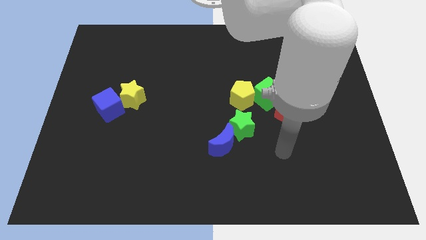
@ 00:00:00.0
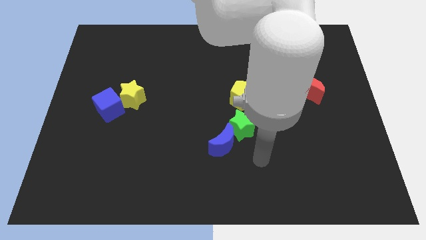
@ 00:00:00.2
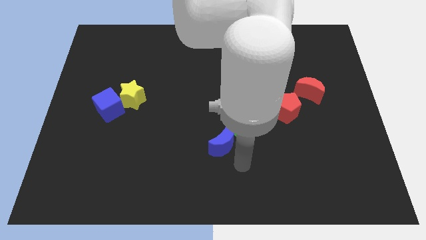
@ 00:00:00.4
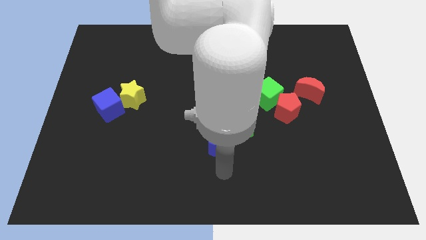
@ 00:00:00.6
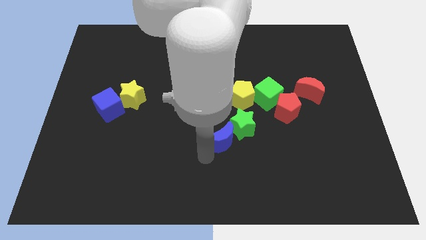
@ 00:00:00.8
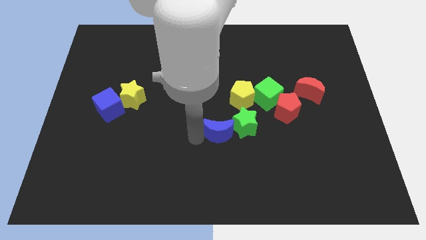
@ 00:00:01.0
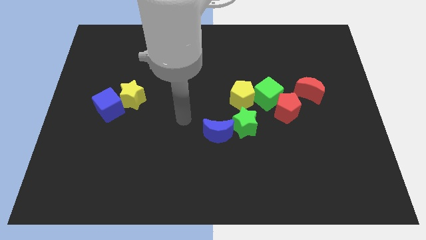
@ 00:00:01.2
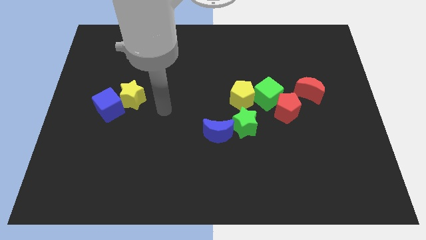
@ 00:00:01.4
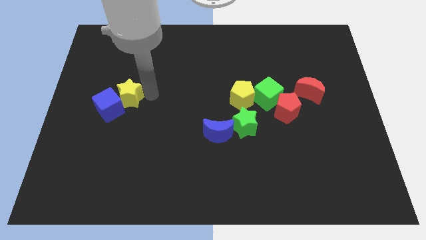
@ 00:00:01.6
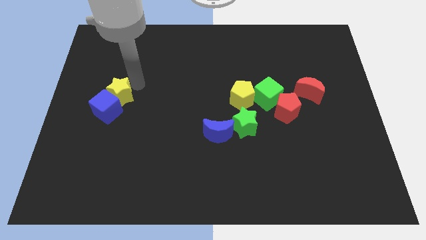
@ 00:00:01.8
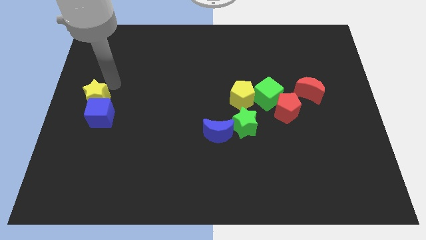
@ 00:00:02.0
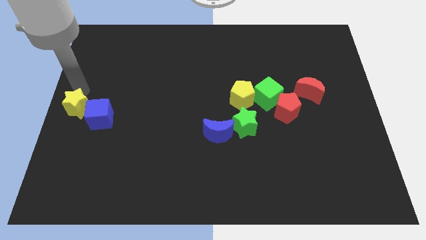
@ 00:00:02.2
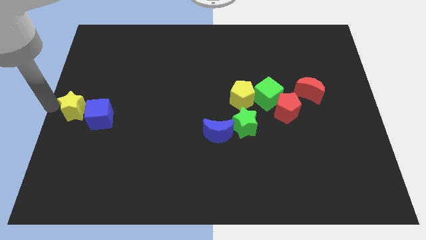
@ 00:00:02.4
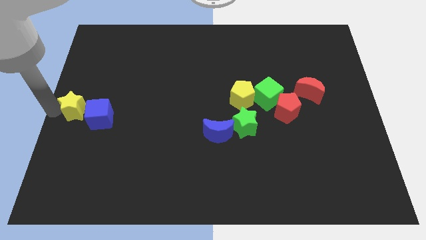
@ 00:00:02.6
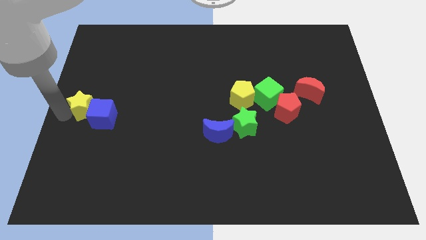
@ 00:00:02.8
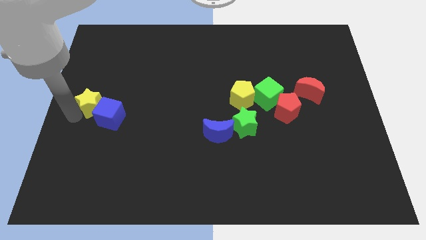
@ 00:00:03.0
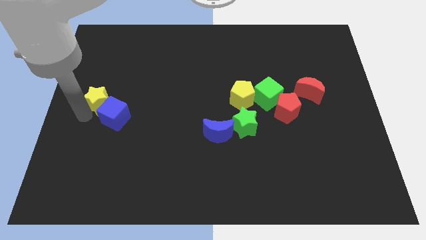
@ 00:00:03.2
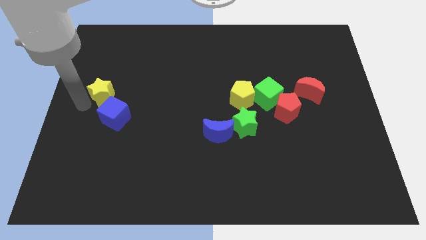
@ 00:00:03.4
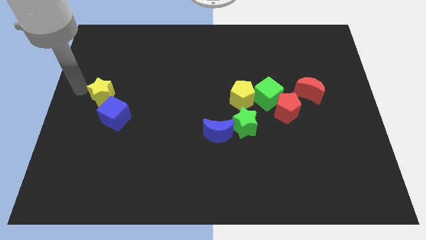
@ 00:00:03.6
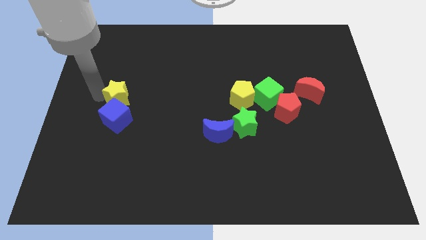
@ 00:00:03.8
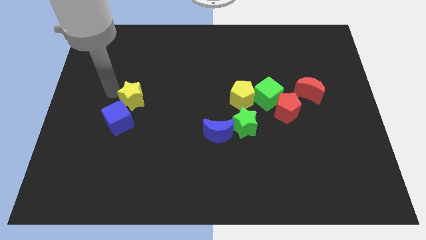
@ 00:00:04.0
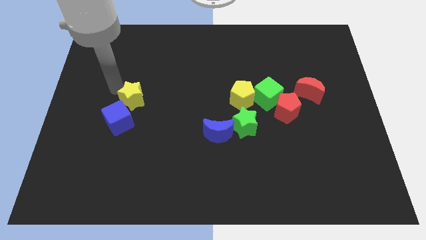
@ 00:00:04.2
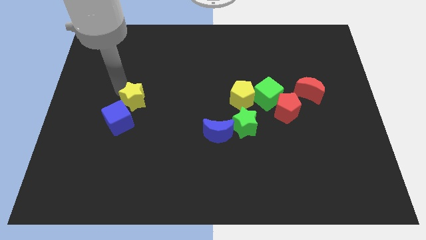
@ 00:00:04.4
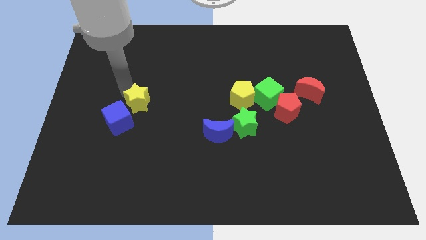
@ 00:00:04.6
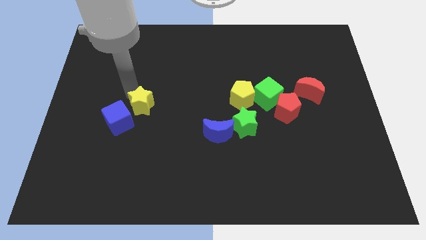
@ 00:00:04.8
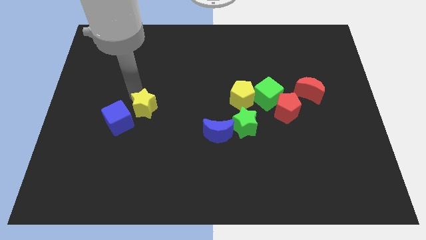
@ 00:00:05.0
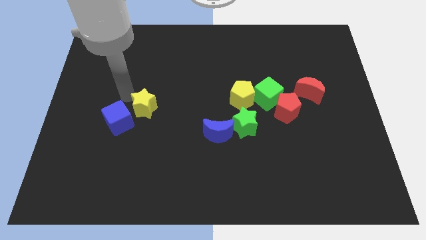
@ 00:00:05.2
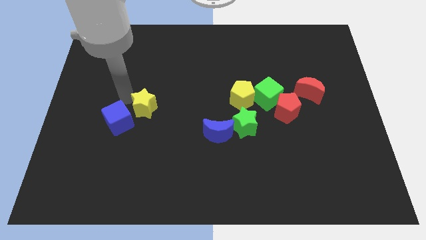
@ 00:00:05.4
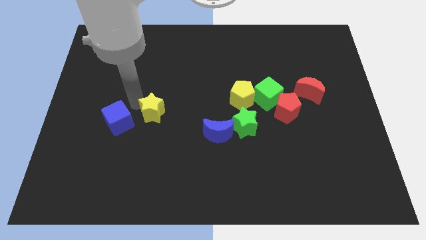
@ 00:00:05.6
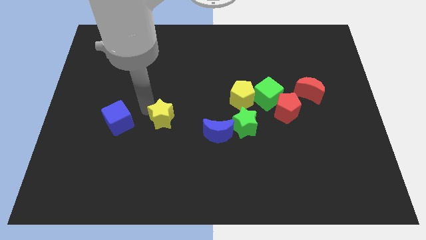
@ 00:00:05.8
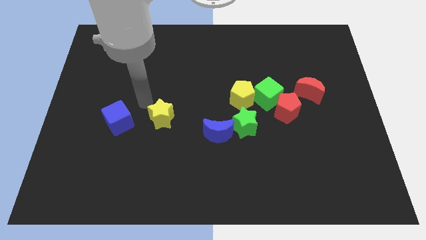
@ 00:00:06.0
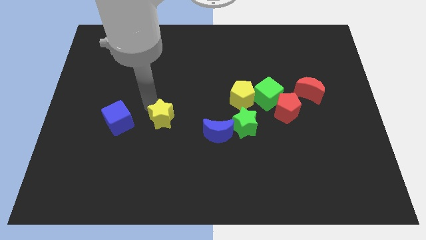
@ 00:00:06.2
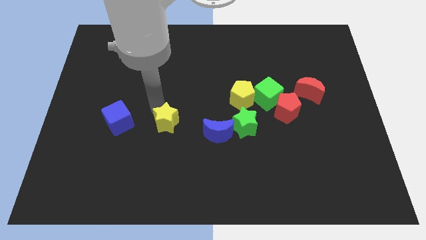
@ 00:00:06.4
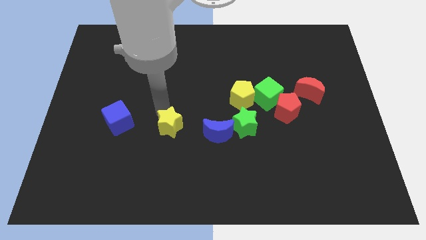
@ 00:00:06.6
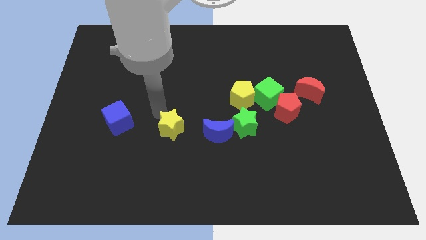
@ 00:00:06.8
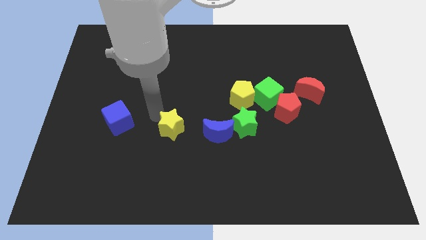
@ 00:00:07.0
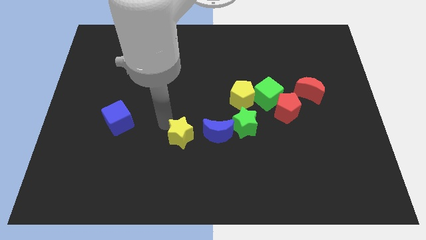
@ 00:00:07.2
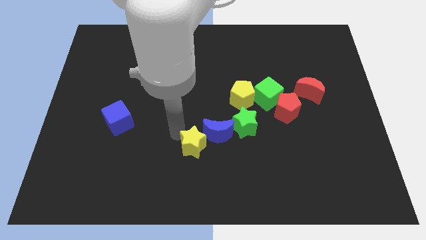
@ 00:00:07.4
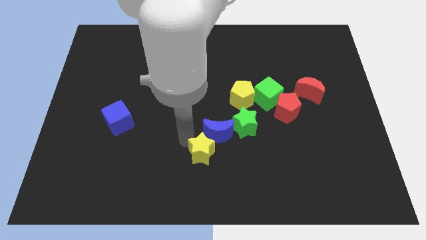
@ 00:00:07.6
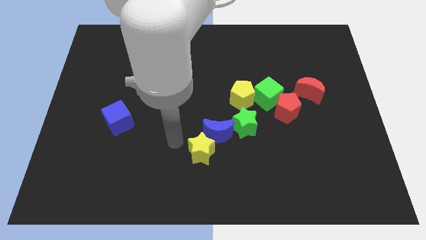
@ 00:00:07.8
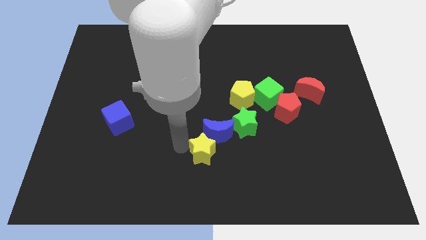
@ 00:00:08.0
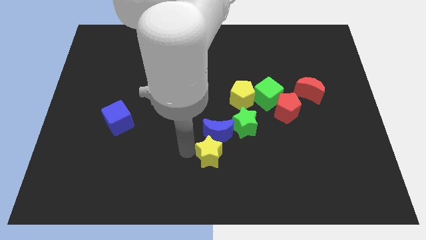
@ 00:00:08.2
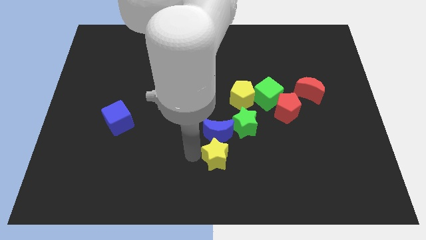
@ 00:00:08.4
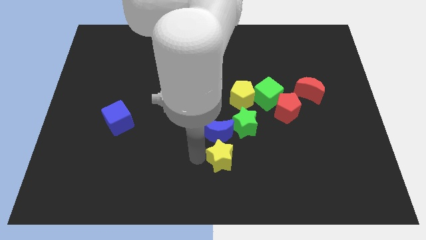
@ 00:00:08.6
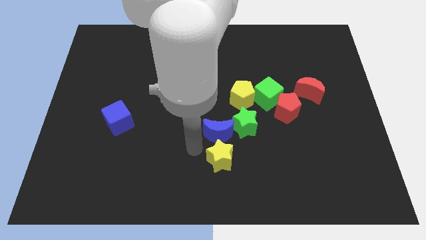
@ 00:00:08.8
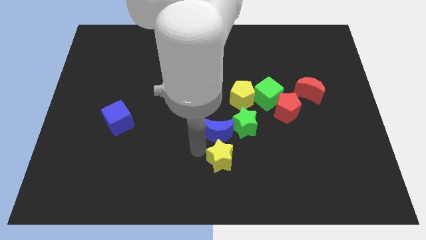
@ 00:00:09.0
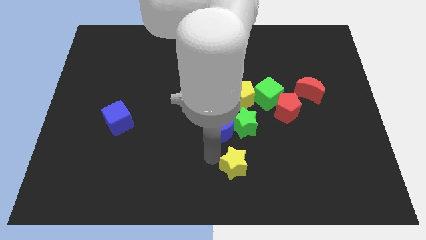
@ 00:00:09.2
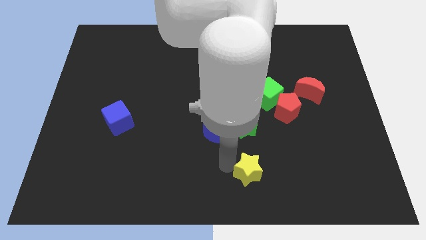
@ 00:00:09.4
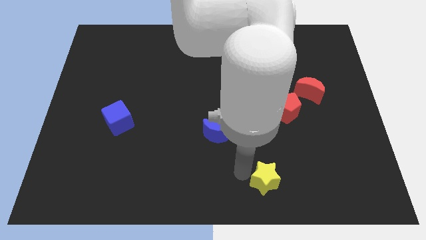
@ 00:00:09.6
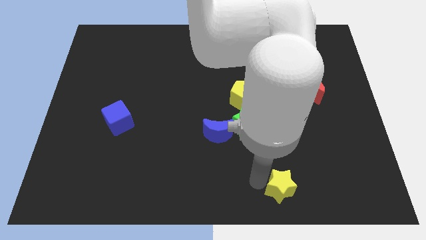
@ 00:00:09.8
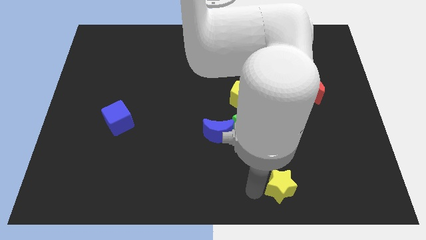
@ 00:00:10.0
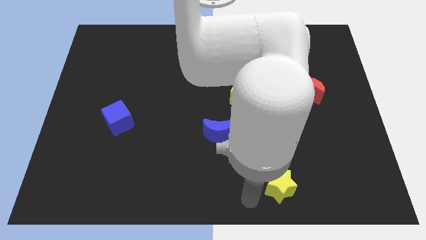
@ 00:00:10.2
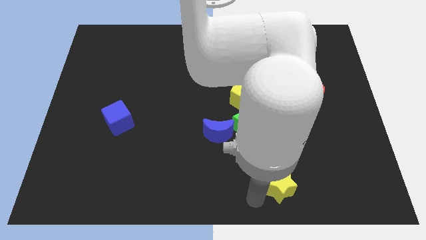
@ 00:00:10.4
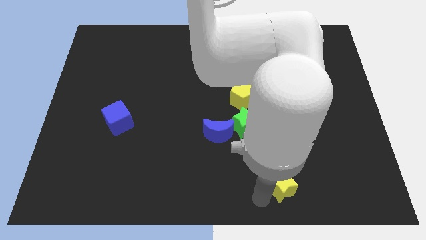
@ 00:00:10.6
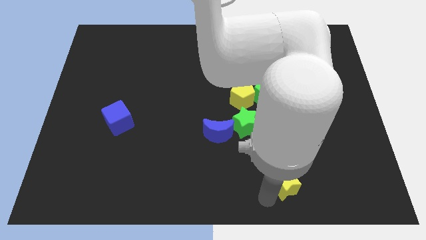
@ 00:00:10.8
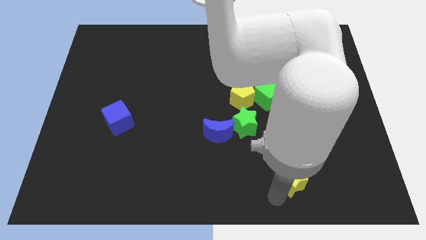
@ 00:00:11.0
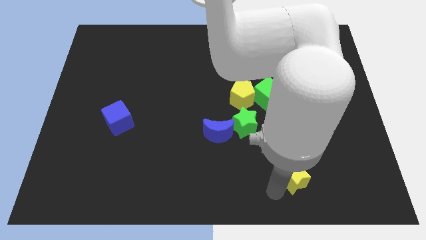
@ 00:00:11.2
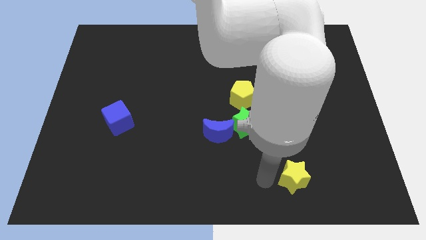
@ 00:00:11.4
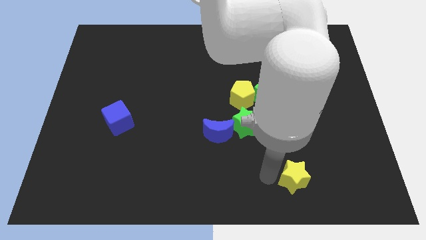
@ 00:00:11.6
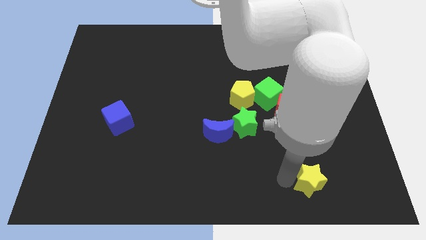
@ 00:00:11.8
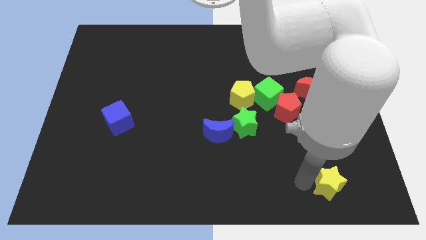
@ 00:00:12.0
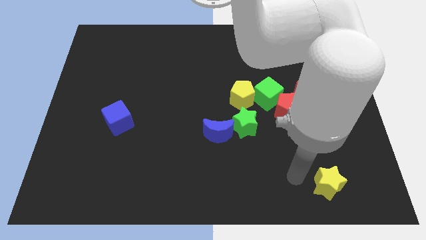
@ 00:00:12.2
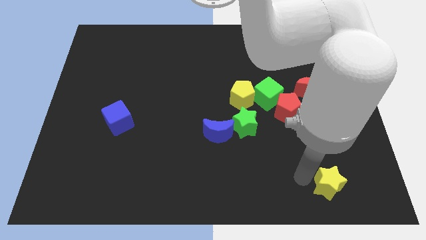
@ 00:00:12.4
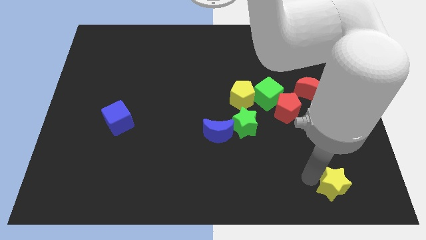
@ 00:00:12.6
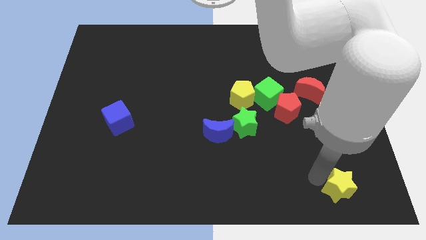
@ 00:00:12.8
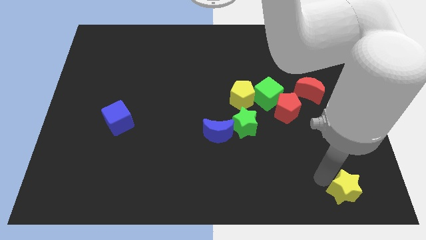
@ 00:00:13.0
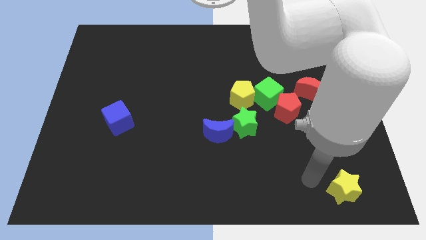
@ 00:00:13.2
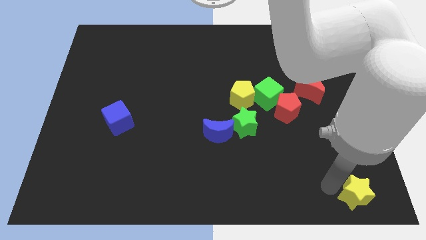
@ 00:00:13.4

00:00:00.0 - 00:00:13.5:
slide the yellow star to the bottom right
